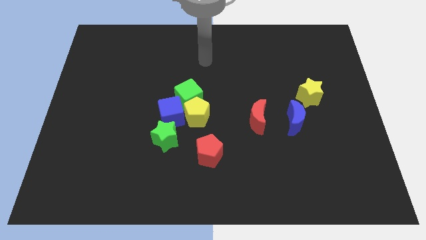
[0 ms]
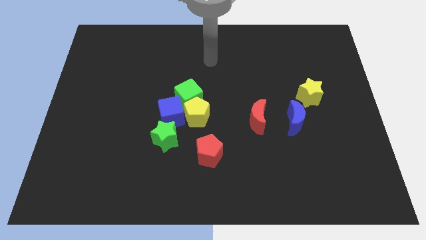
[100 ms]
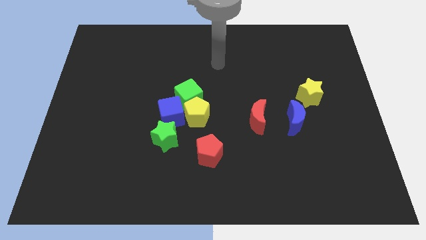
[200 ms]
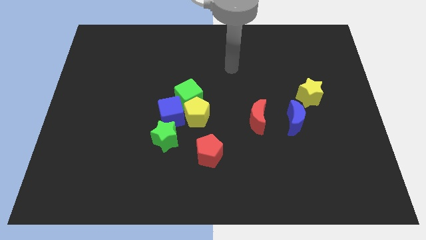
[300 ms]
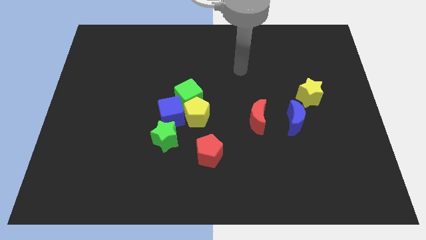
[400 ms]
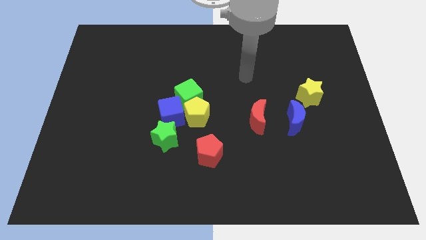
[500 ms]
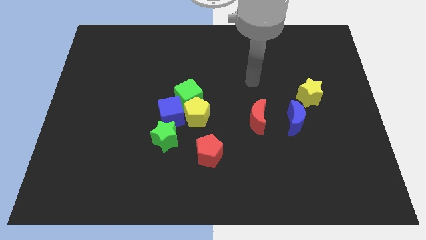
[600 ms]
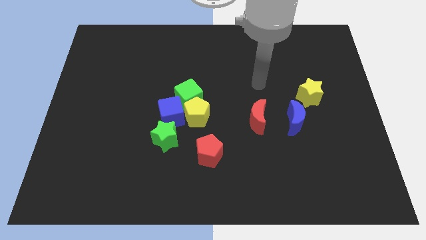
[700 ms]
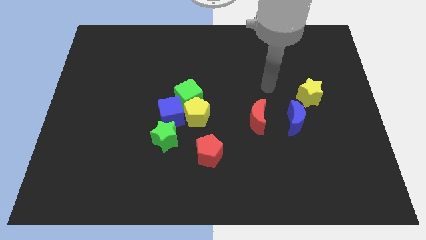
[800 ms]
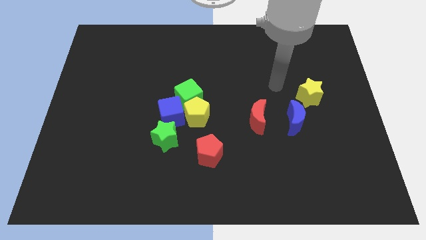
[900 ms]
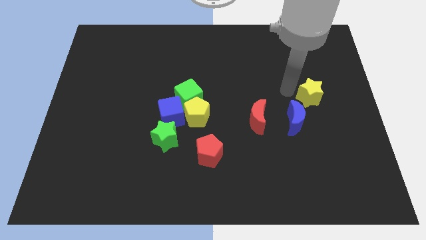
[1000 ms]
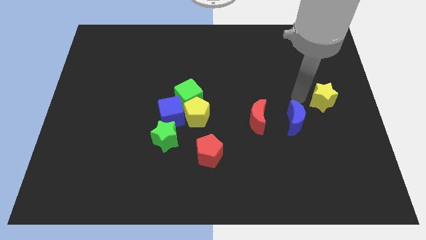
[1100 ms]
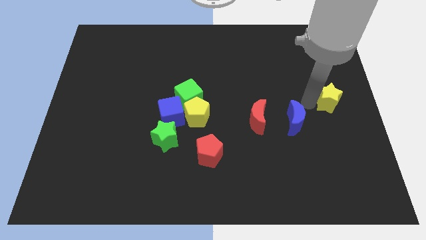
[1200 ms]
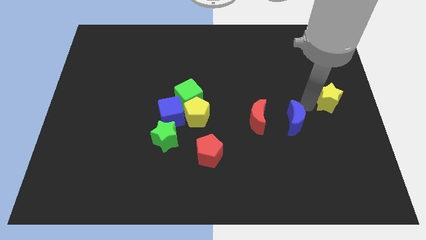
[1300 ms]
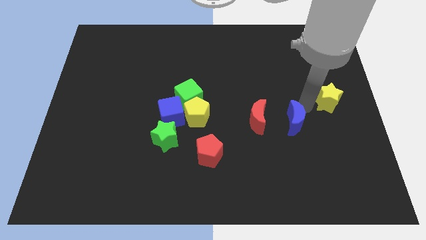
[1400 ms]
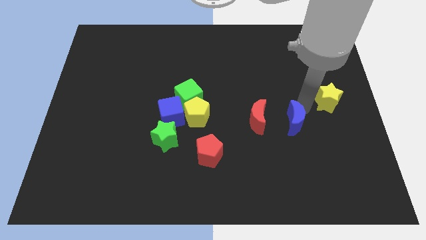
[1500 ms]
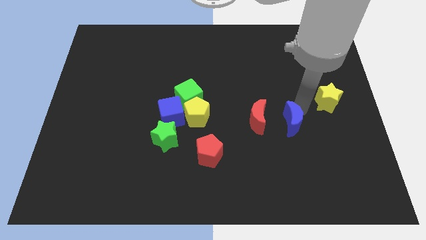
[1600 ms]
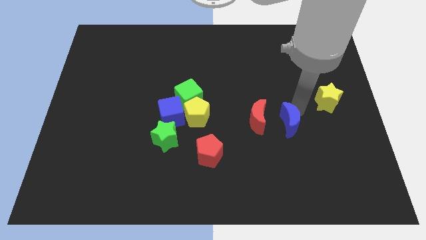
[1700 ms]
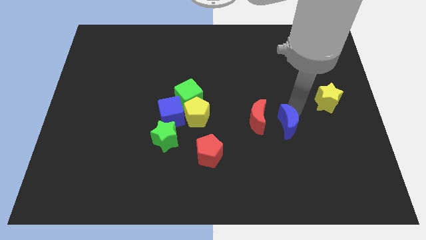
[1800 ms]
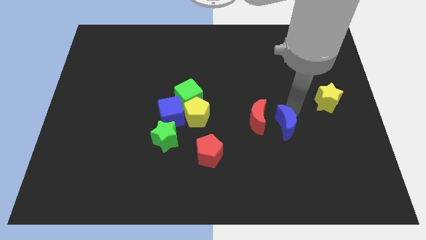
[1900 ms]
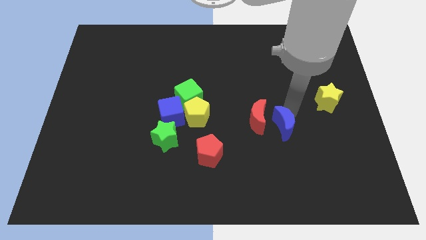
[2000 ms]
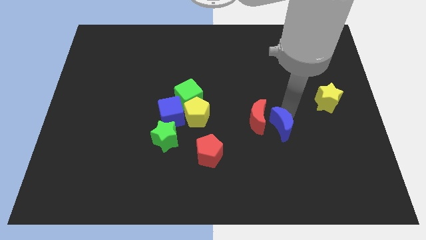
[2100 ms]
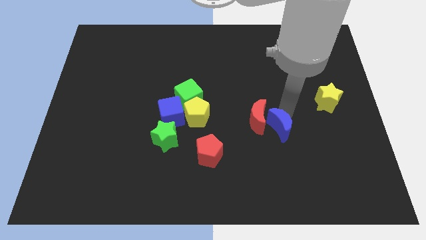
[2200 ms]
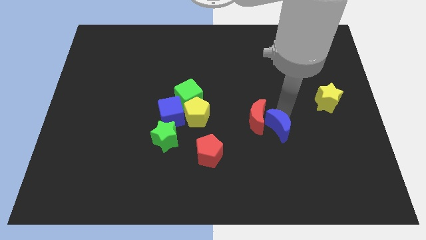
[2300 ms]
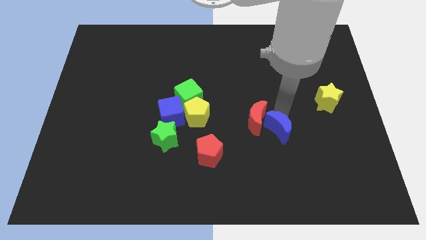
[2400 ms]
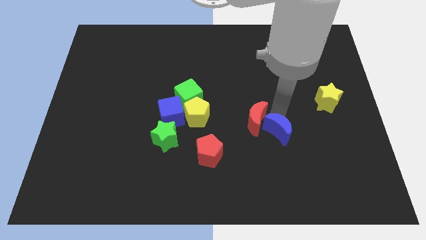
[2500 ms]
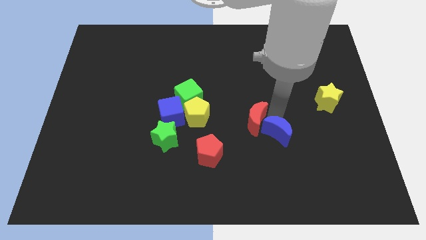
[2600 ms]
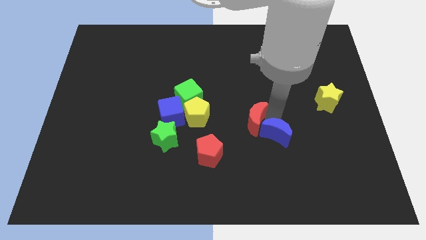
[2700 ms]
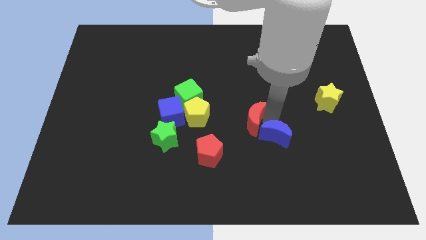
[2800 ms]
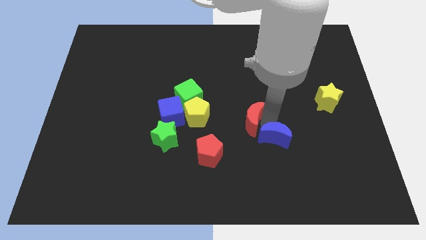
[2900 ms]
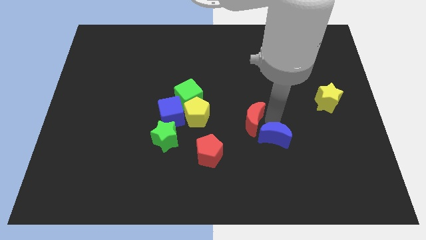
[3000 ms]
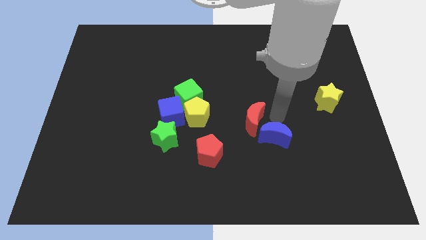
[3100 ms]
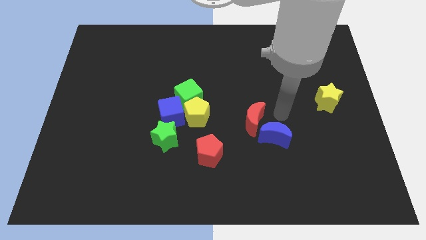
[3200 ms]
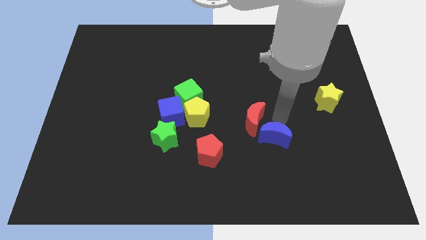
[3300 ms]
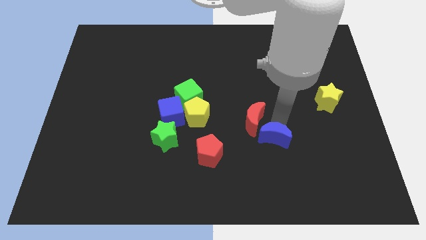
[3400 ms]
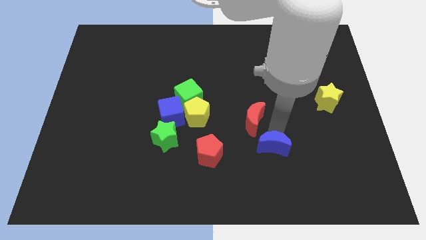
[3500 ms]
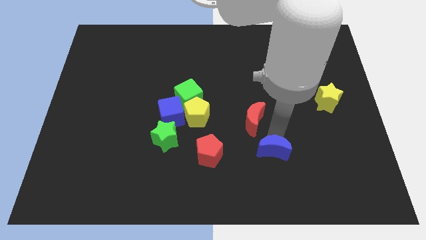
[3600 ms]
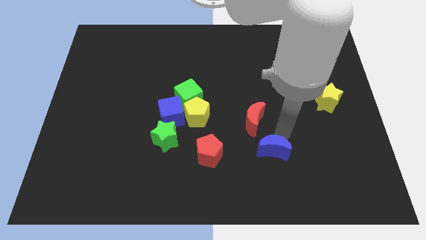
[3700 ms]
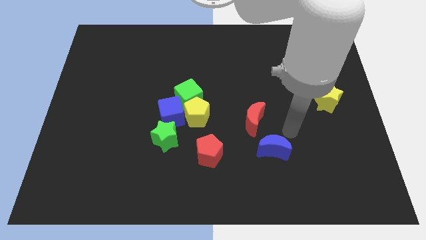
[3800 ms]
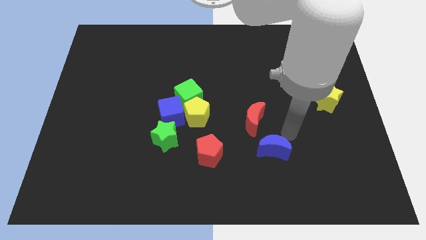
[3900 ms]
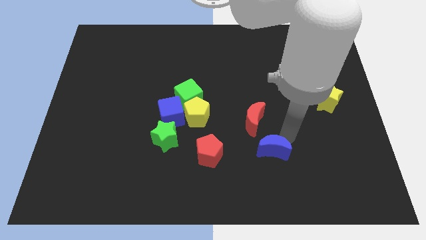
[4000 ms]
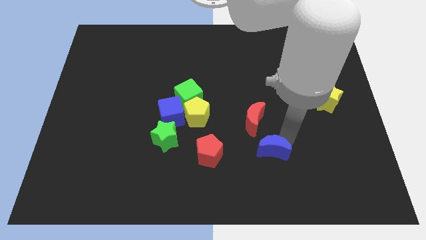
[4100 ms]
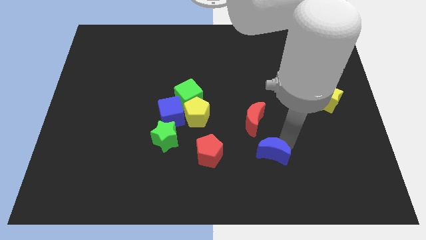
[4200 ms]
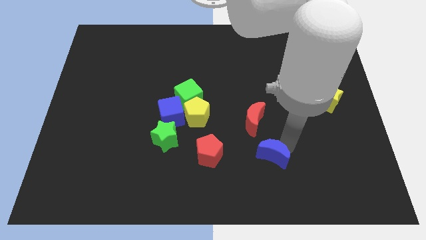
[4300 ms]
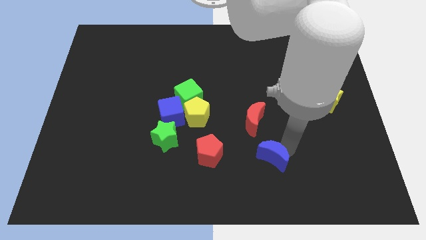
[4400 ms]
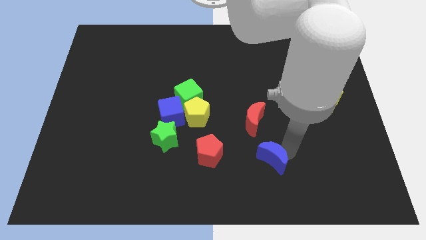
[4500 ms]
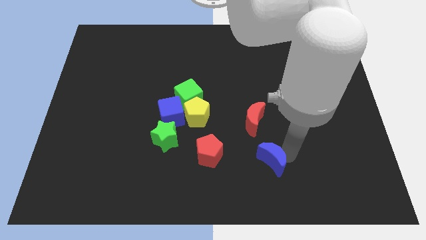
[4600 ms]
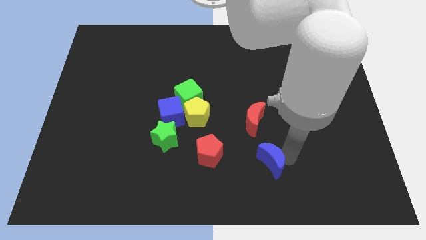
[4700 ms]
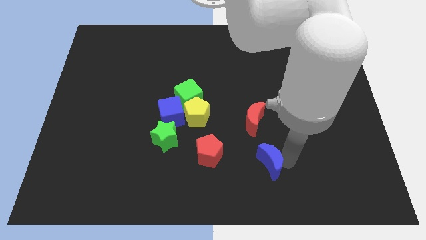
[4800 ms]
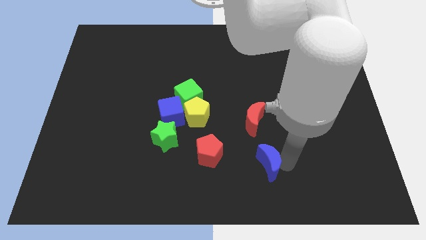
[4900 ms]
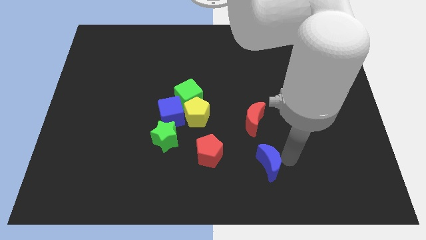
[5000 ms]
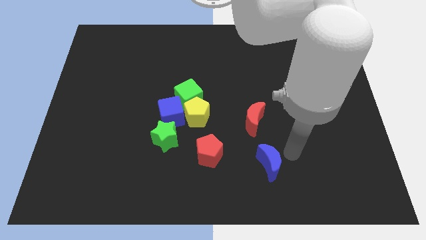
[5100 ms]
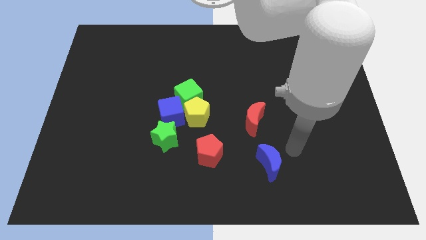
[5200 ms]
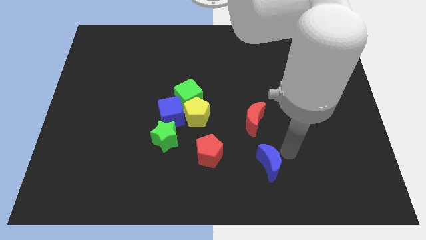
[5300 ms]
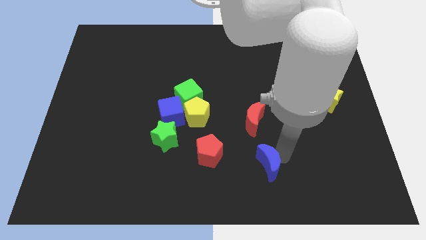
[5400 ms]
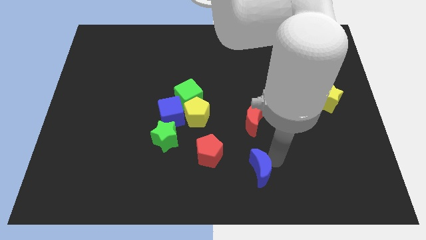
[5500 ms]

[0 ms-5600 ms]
slide the blue moon to the bottom
